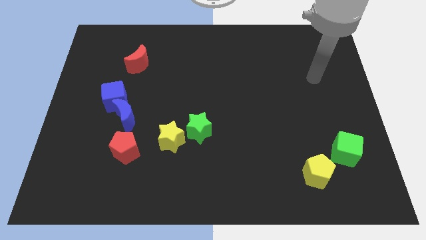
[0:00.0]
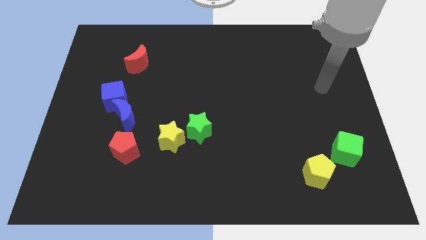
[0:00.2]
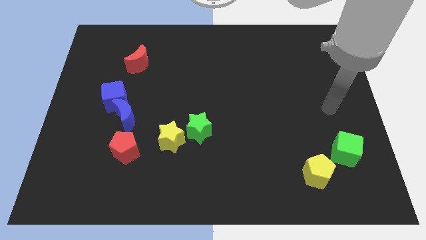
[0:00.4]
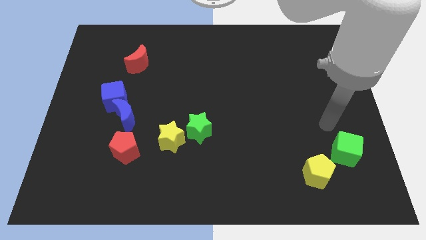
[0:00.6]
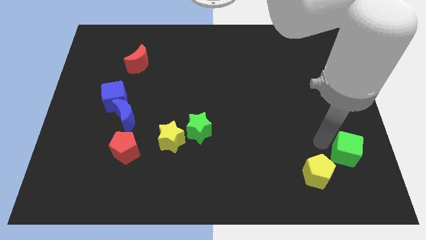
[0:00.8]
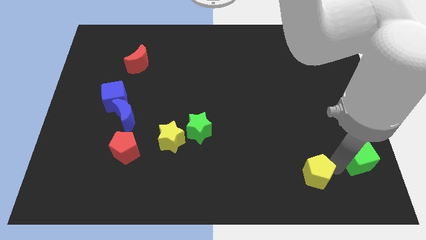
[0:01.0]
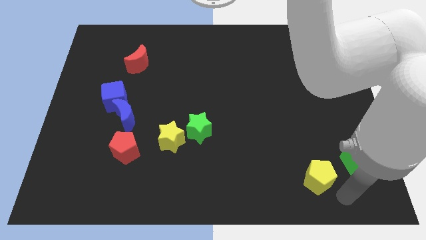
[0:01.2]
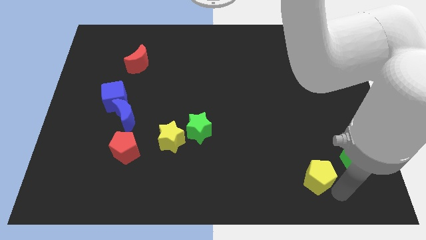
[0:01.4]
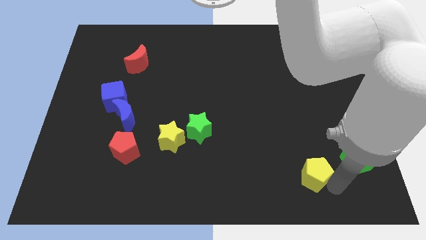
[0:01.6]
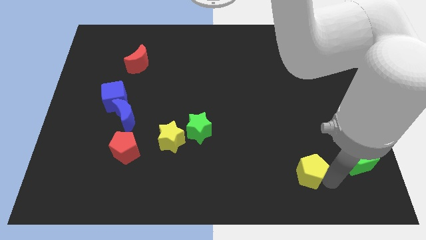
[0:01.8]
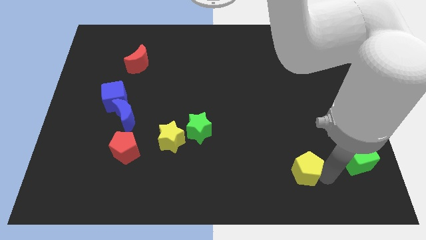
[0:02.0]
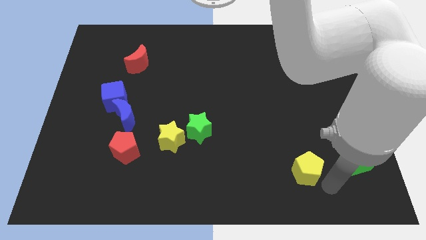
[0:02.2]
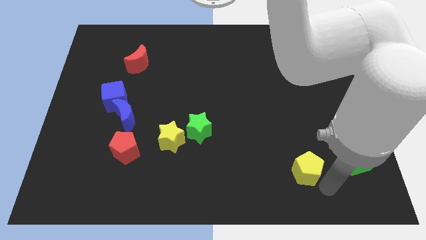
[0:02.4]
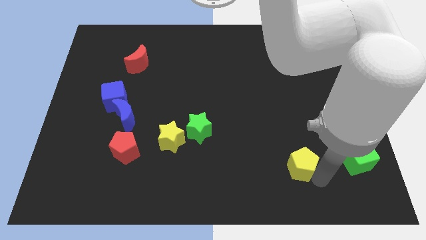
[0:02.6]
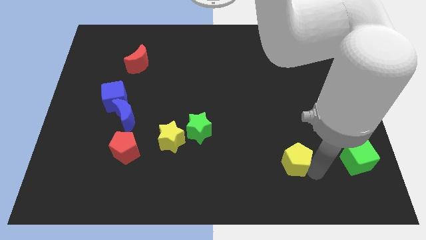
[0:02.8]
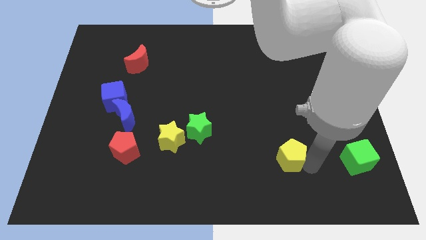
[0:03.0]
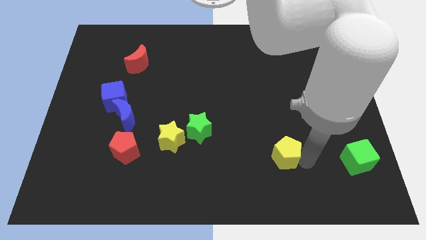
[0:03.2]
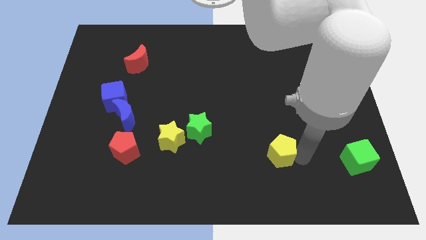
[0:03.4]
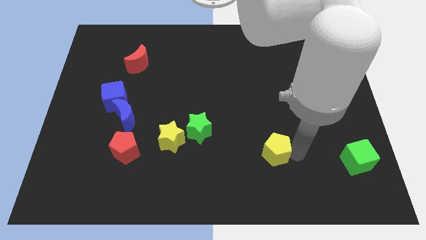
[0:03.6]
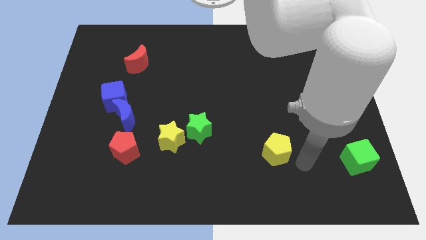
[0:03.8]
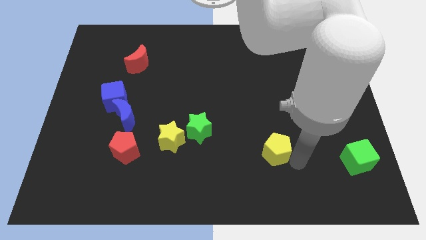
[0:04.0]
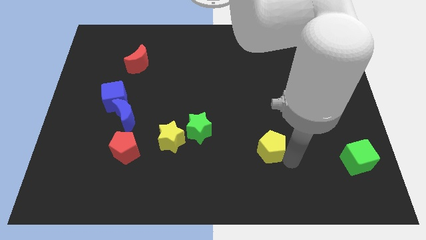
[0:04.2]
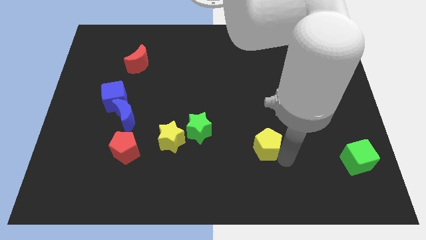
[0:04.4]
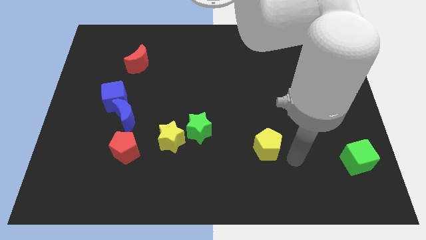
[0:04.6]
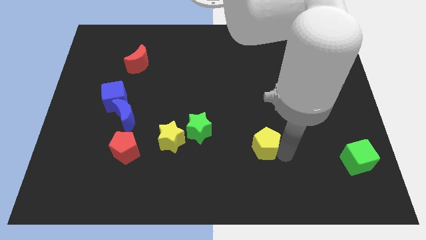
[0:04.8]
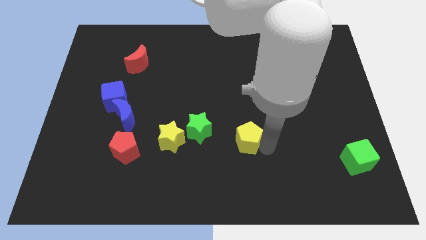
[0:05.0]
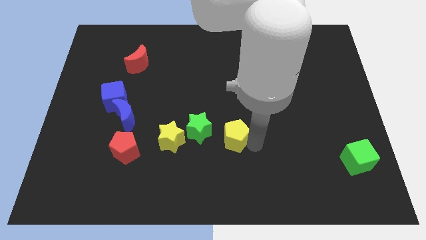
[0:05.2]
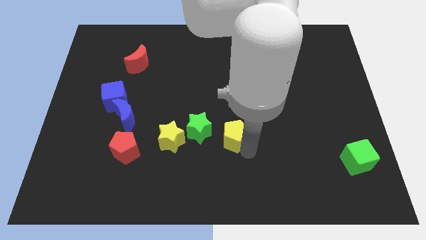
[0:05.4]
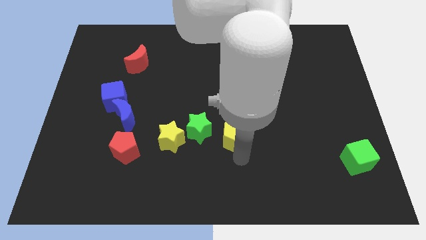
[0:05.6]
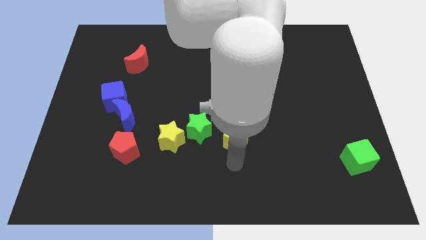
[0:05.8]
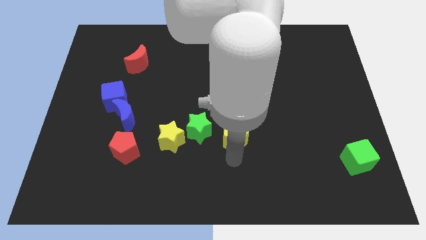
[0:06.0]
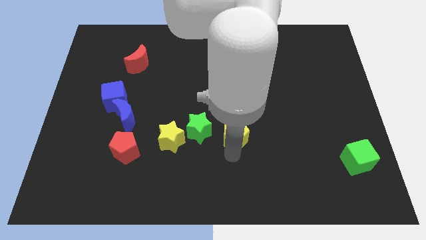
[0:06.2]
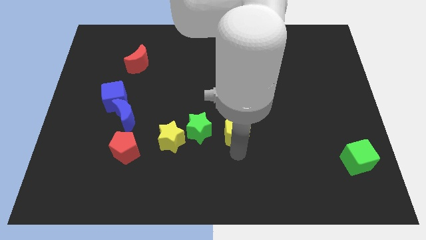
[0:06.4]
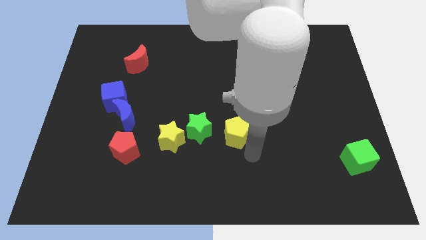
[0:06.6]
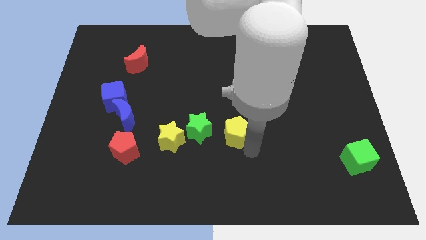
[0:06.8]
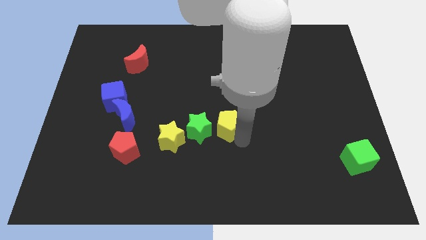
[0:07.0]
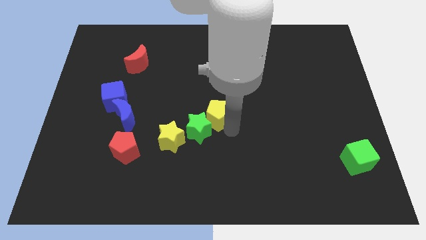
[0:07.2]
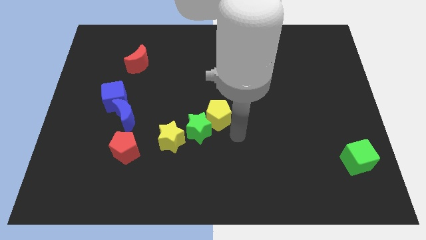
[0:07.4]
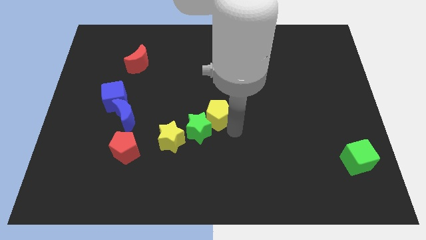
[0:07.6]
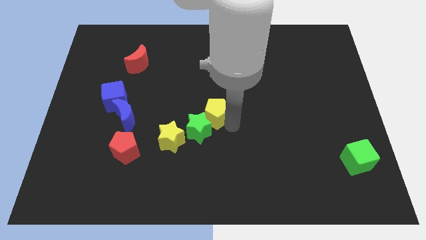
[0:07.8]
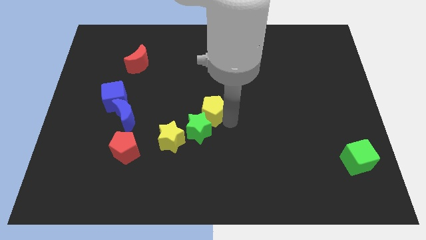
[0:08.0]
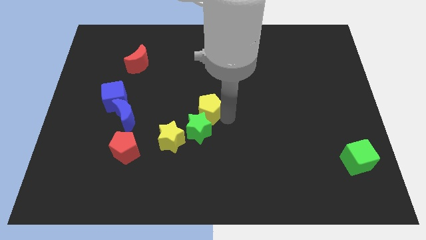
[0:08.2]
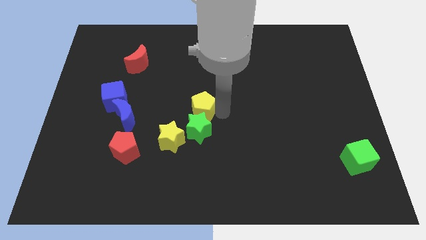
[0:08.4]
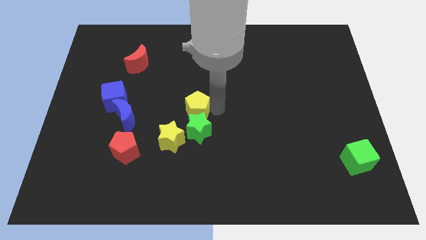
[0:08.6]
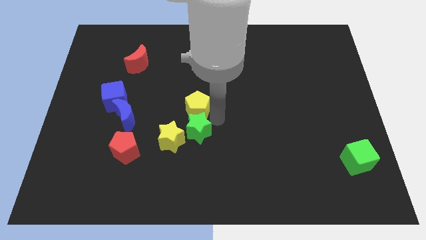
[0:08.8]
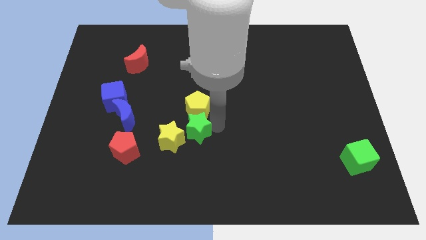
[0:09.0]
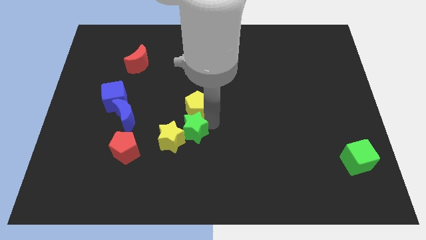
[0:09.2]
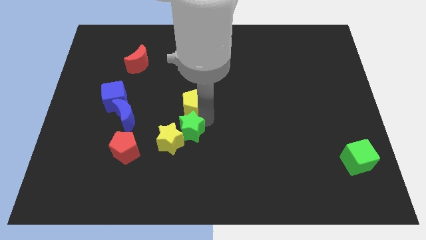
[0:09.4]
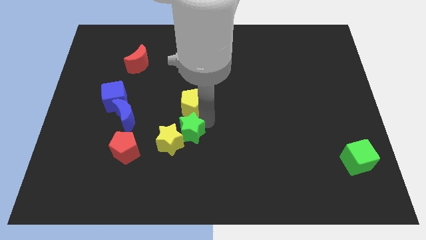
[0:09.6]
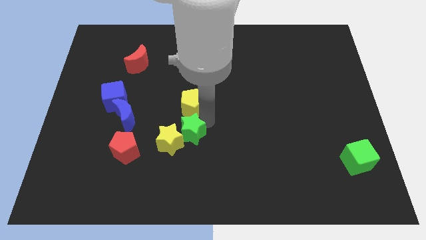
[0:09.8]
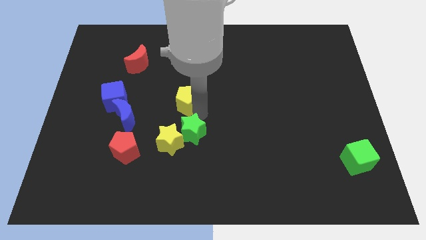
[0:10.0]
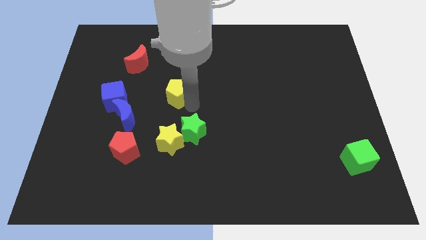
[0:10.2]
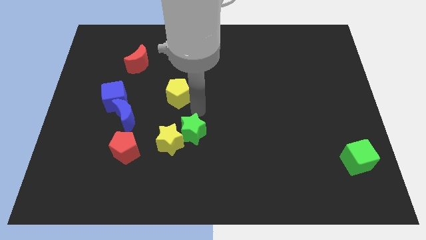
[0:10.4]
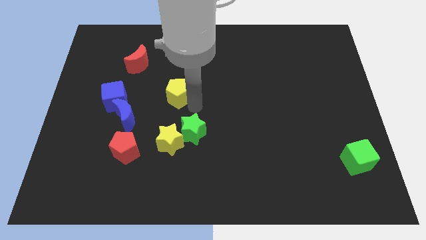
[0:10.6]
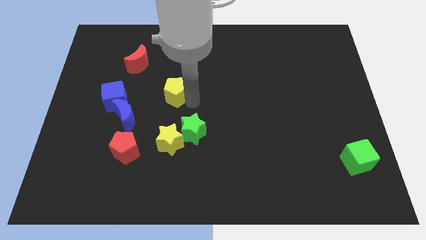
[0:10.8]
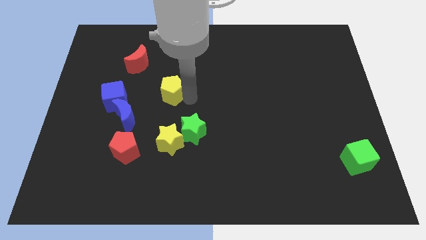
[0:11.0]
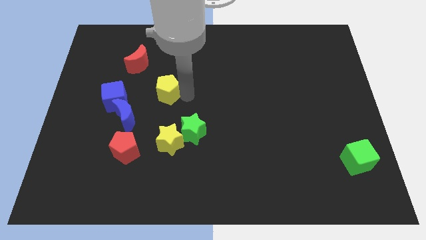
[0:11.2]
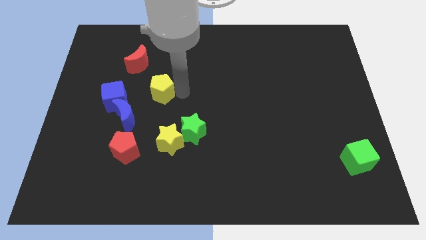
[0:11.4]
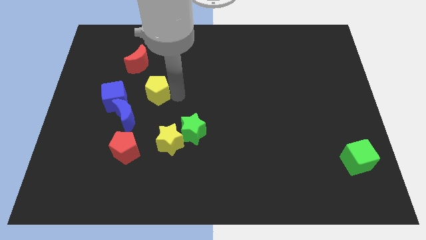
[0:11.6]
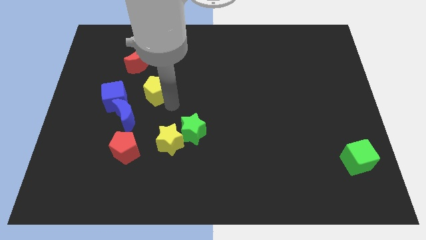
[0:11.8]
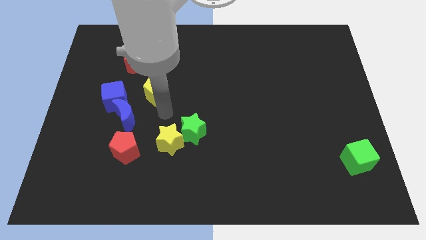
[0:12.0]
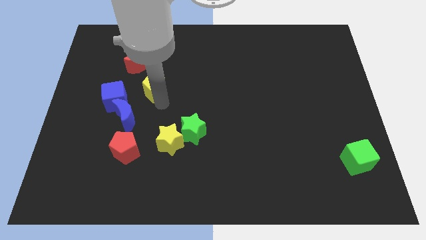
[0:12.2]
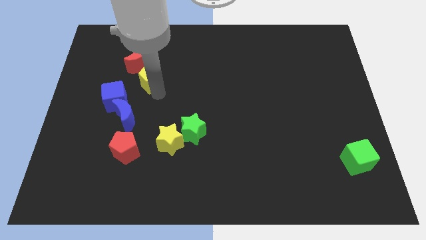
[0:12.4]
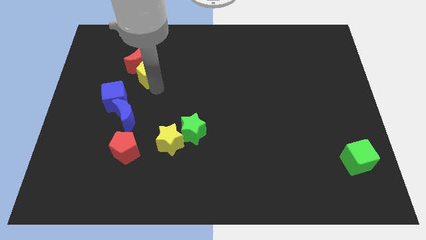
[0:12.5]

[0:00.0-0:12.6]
push the yellow pentagon close to the red moon

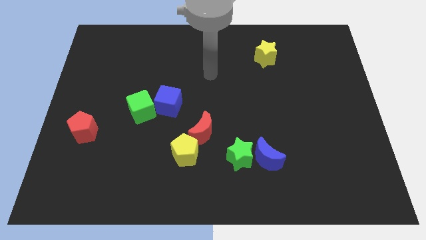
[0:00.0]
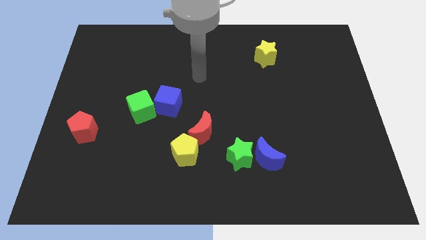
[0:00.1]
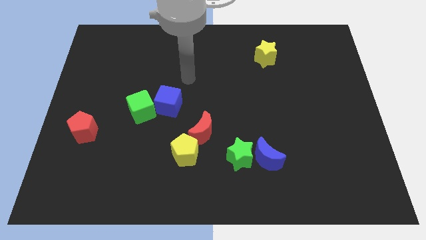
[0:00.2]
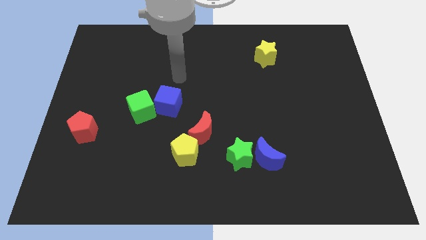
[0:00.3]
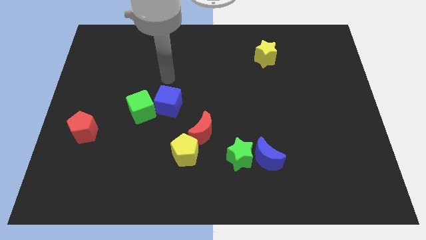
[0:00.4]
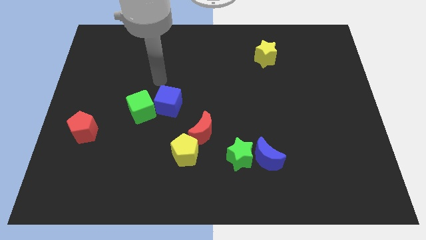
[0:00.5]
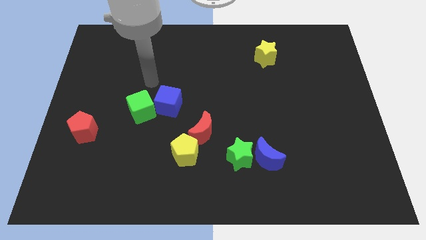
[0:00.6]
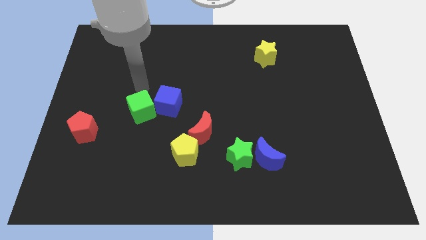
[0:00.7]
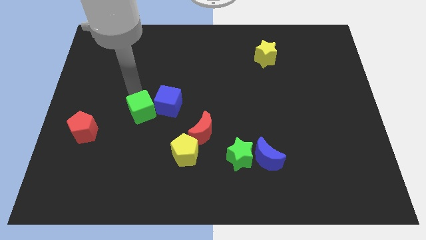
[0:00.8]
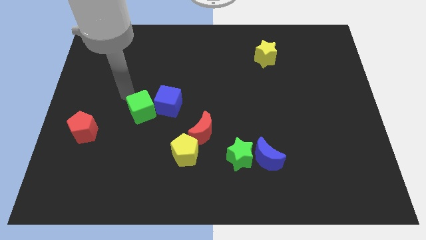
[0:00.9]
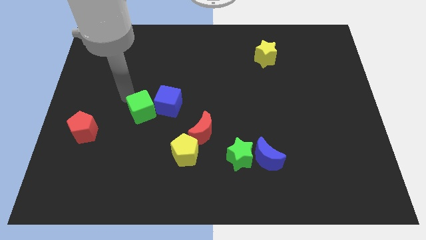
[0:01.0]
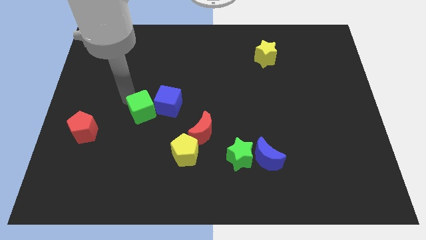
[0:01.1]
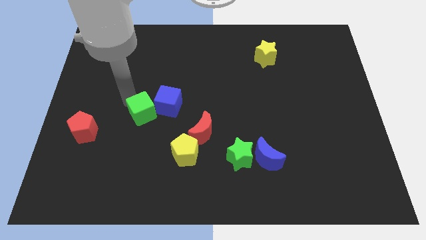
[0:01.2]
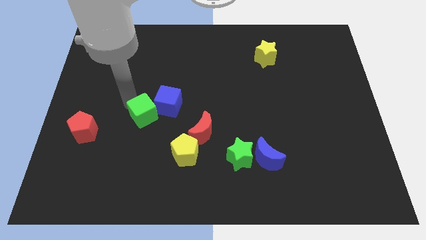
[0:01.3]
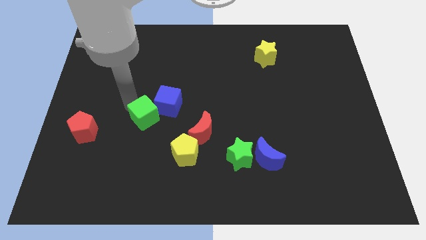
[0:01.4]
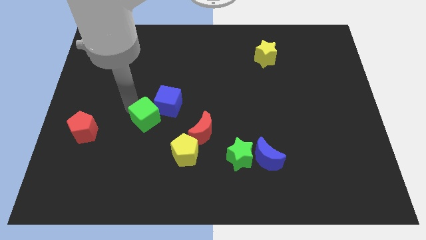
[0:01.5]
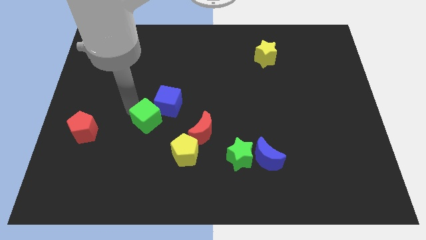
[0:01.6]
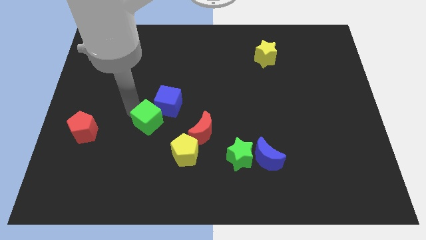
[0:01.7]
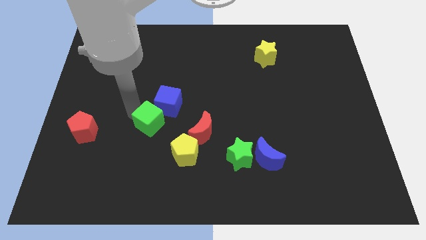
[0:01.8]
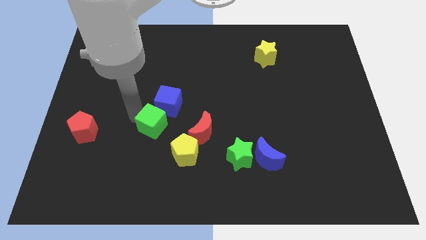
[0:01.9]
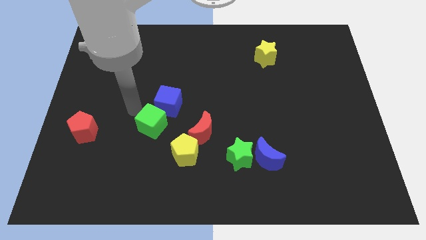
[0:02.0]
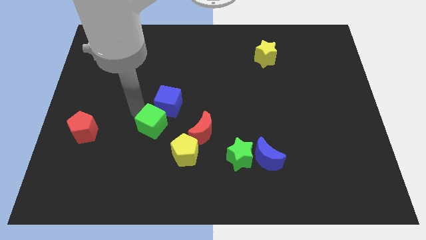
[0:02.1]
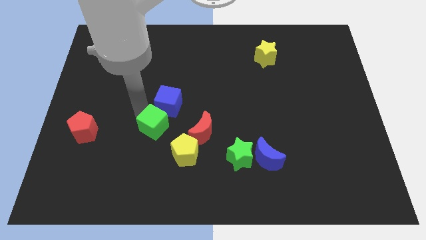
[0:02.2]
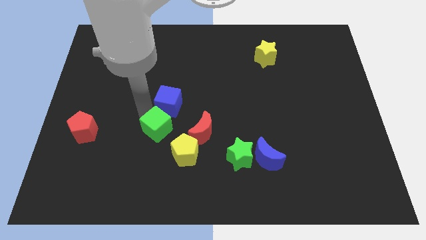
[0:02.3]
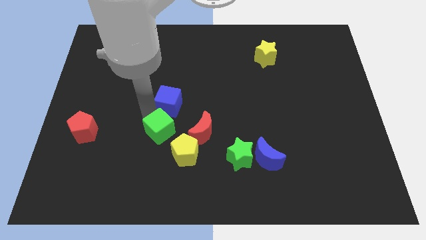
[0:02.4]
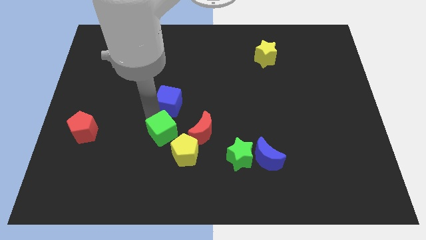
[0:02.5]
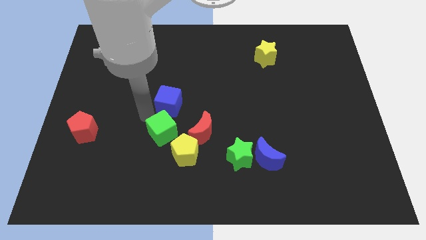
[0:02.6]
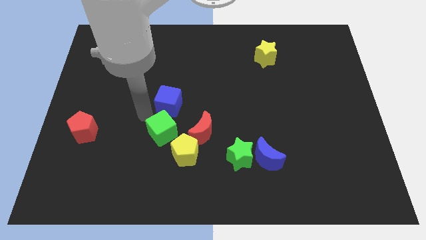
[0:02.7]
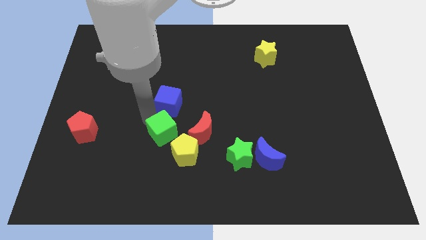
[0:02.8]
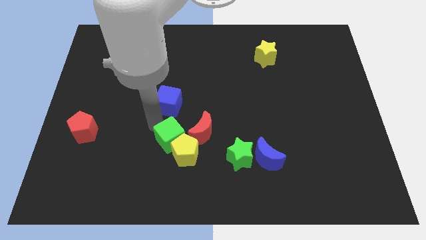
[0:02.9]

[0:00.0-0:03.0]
push the green cube next to the yellow pentagon
